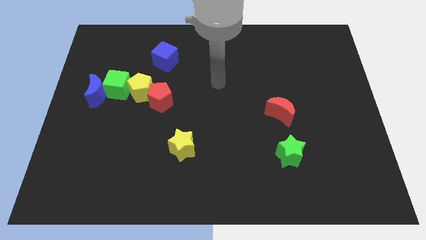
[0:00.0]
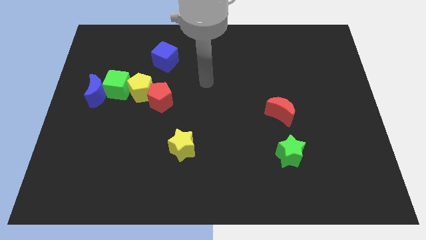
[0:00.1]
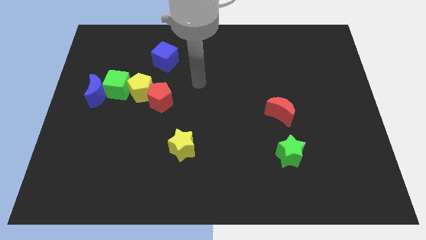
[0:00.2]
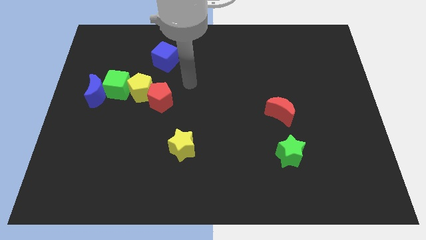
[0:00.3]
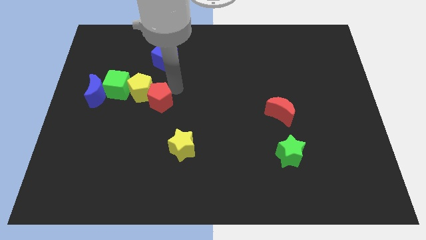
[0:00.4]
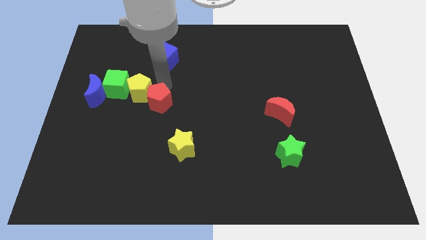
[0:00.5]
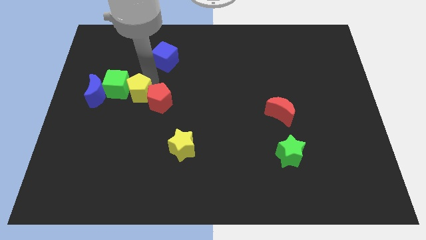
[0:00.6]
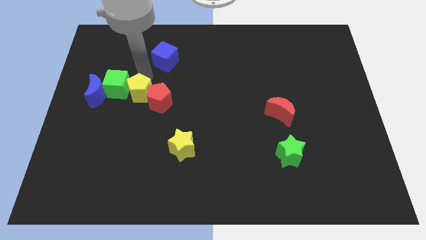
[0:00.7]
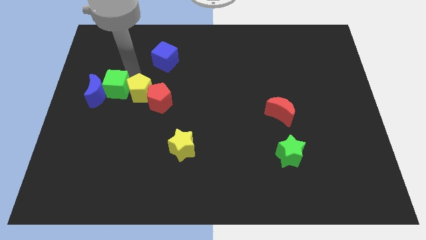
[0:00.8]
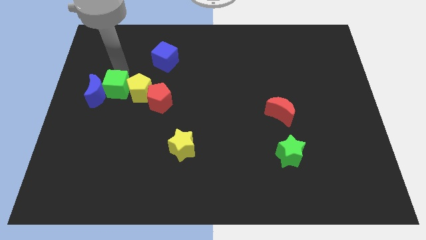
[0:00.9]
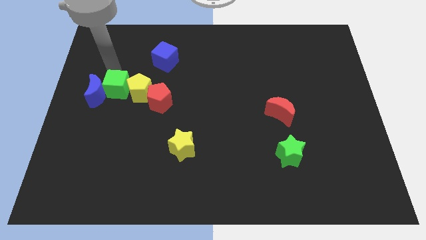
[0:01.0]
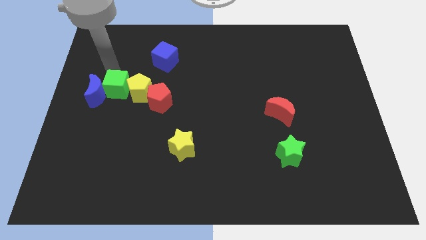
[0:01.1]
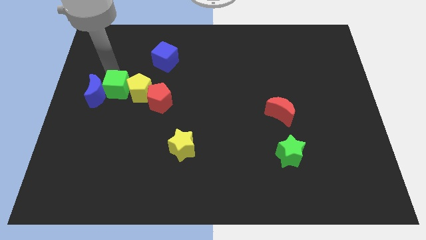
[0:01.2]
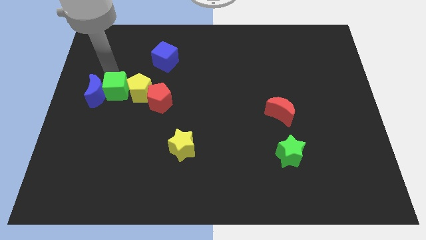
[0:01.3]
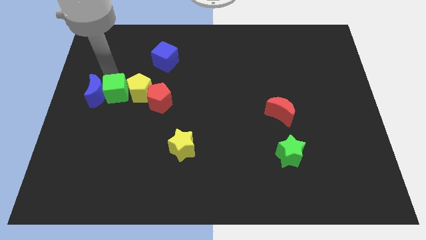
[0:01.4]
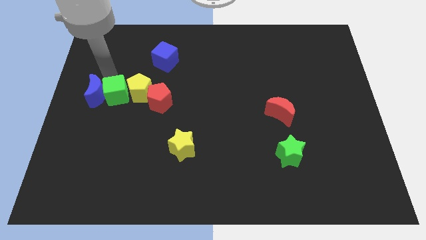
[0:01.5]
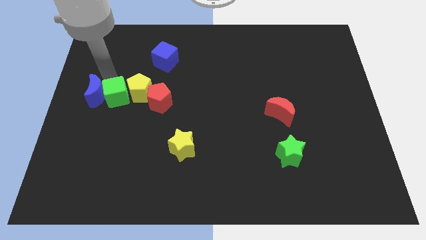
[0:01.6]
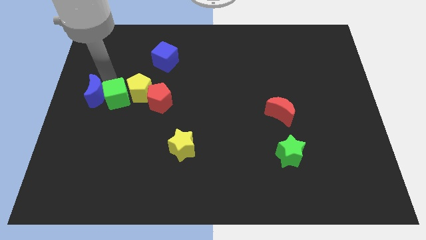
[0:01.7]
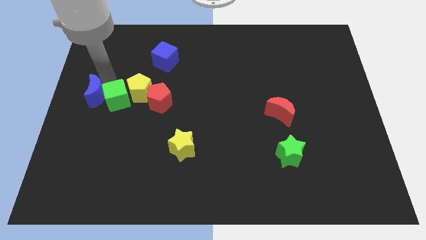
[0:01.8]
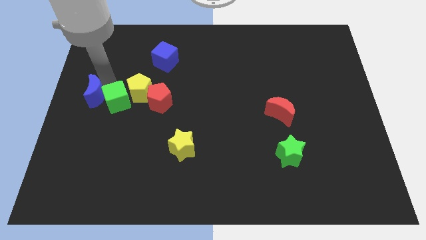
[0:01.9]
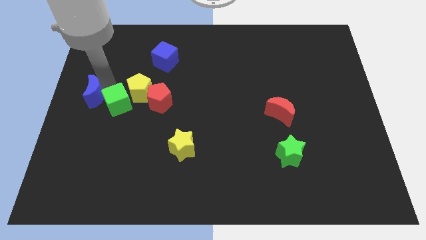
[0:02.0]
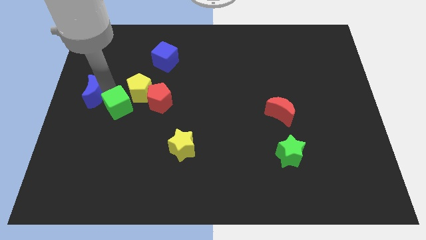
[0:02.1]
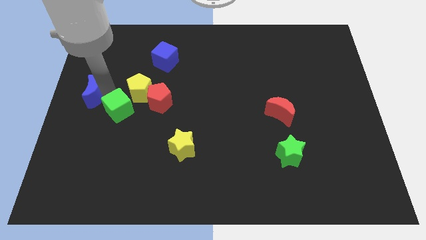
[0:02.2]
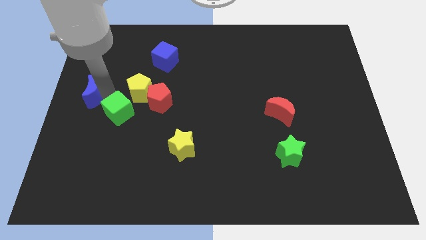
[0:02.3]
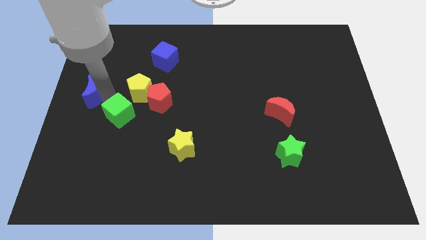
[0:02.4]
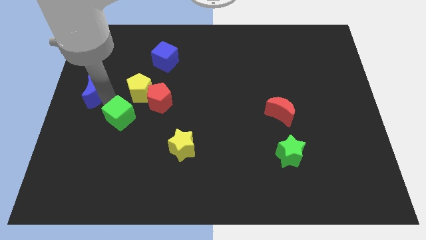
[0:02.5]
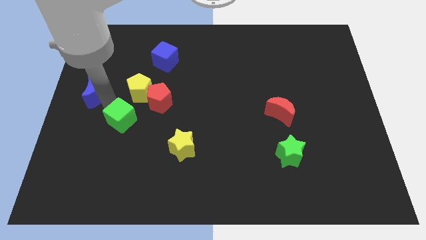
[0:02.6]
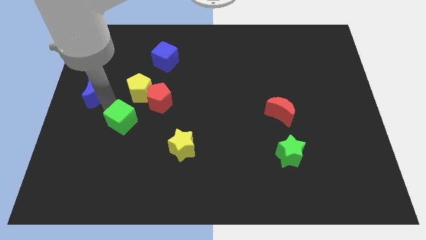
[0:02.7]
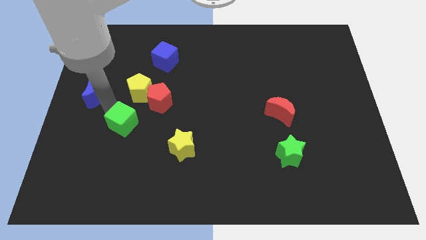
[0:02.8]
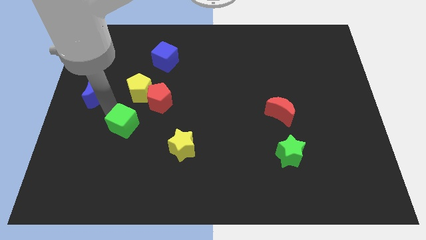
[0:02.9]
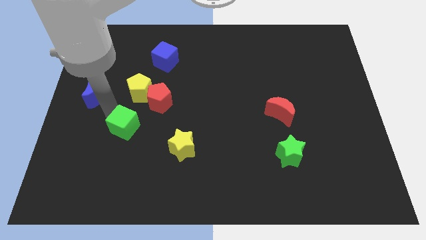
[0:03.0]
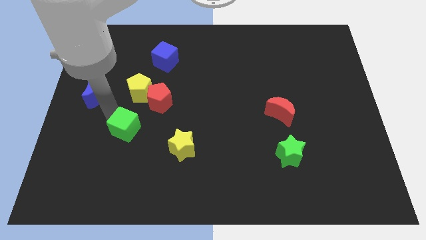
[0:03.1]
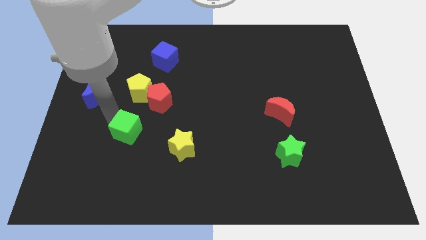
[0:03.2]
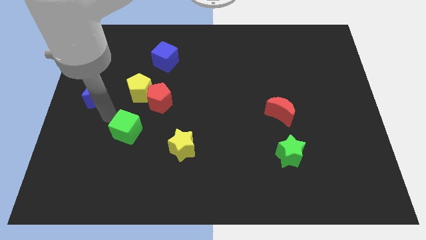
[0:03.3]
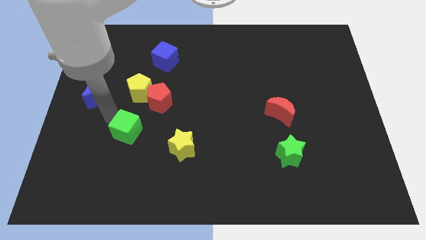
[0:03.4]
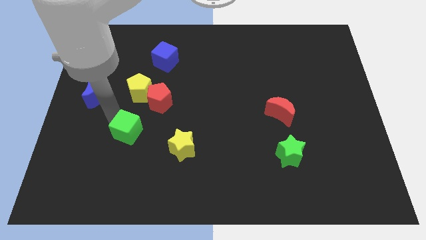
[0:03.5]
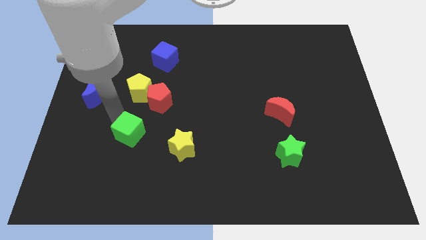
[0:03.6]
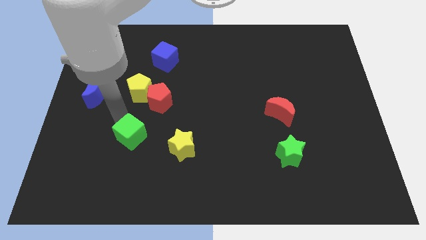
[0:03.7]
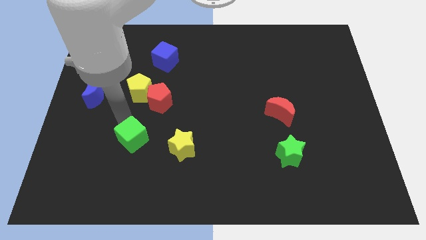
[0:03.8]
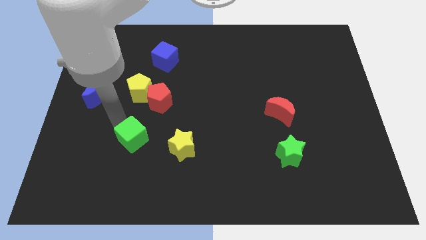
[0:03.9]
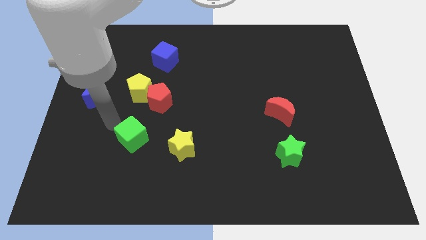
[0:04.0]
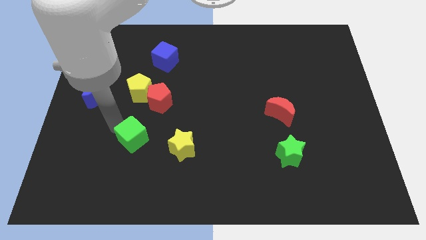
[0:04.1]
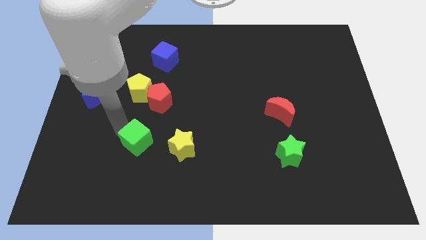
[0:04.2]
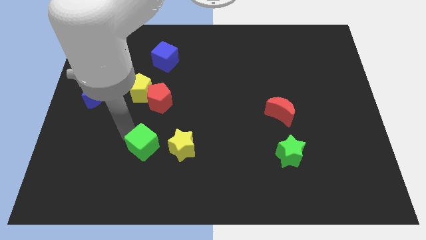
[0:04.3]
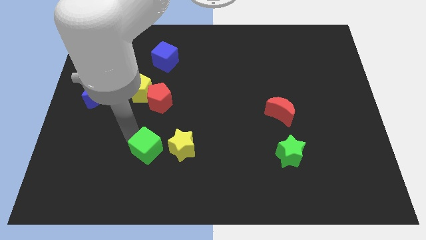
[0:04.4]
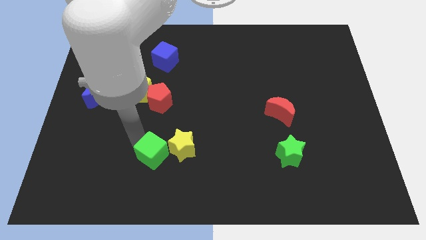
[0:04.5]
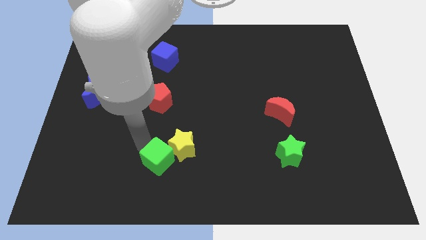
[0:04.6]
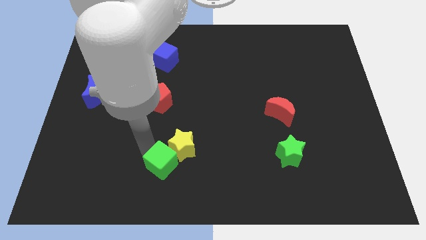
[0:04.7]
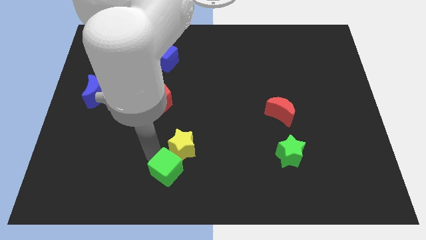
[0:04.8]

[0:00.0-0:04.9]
push the green cube to the bottom

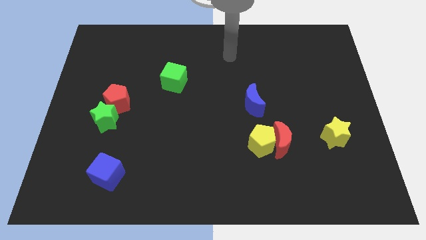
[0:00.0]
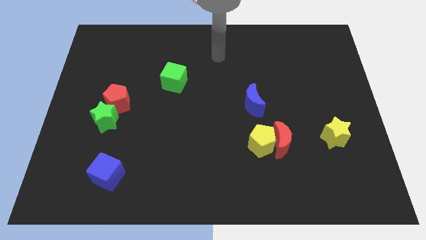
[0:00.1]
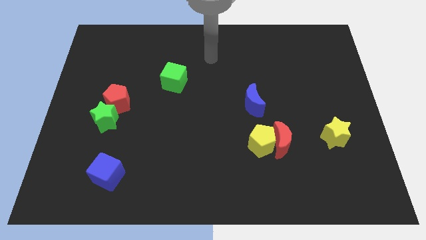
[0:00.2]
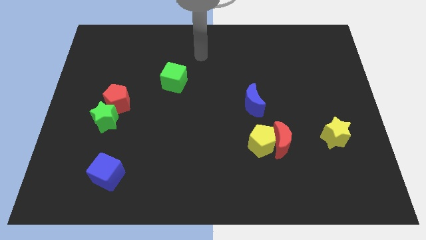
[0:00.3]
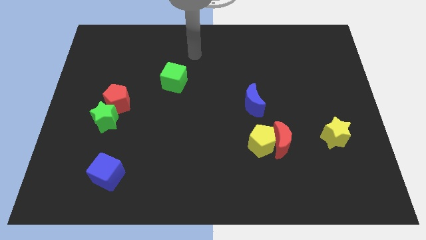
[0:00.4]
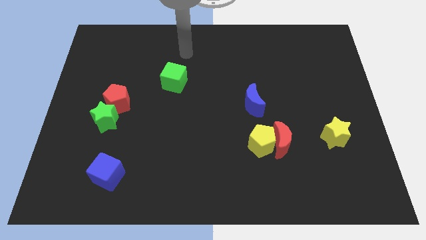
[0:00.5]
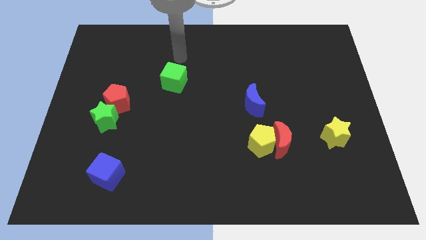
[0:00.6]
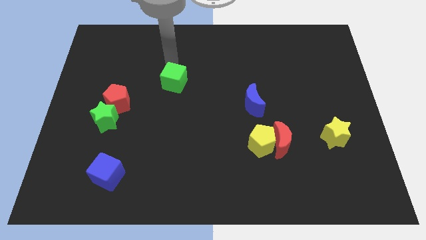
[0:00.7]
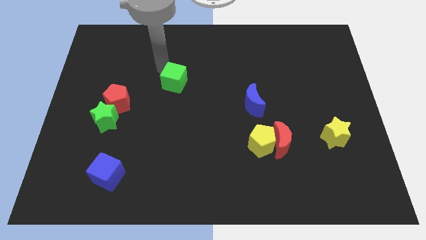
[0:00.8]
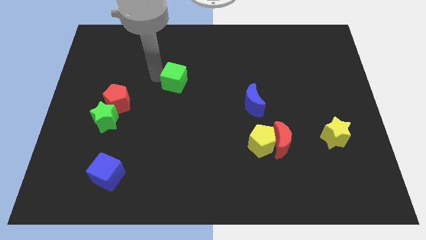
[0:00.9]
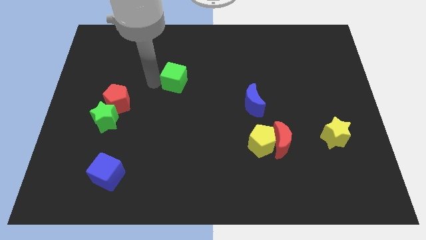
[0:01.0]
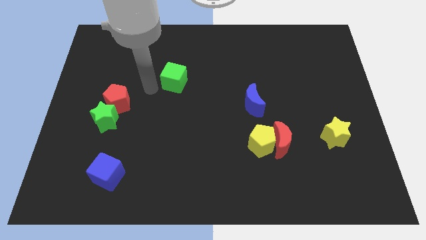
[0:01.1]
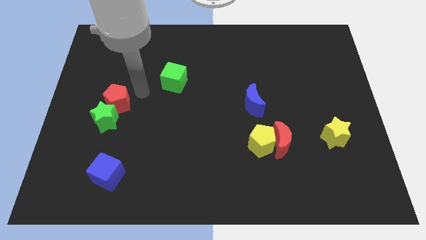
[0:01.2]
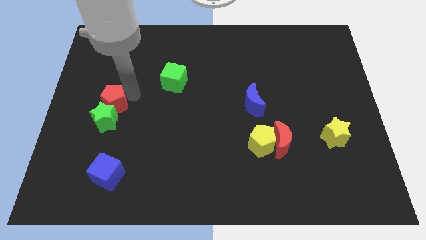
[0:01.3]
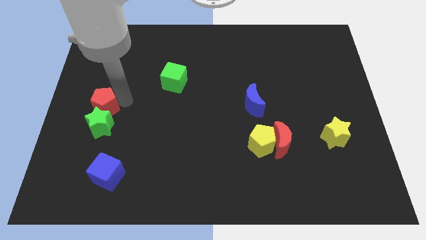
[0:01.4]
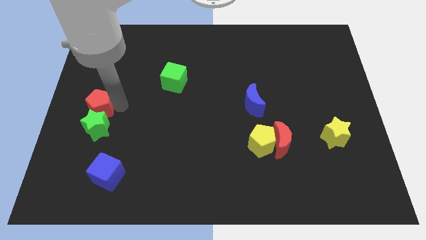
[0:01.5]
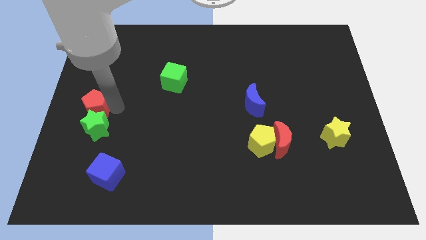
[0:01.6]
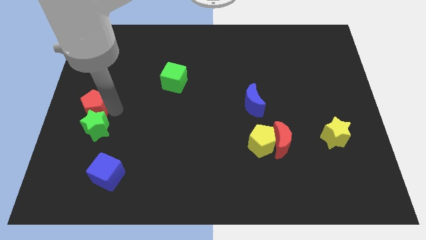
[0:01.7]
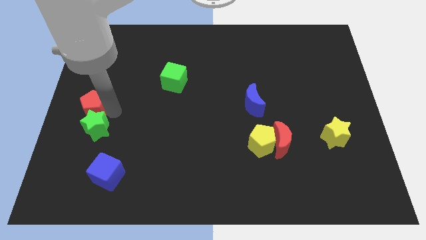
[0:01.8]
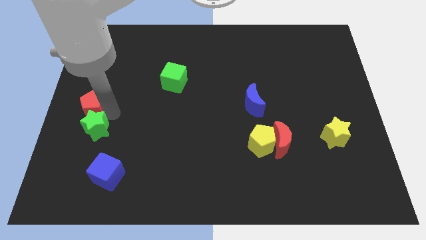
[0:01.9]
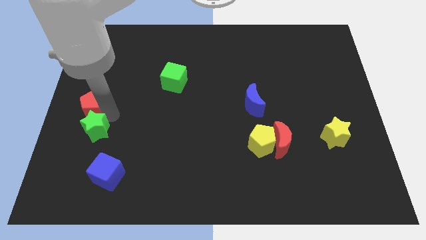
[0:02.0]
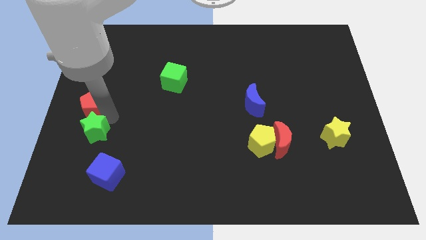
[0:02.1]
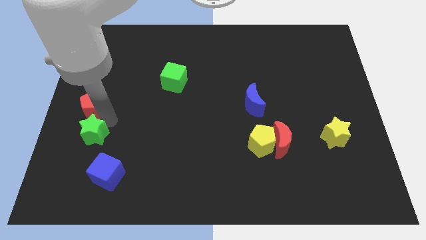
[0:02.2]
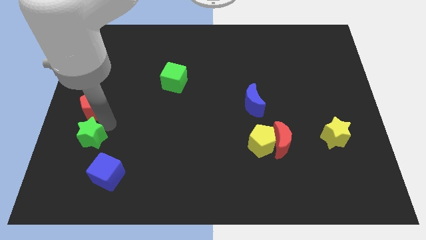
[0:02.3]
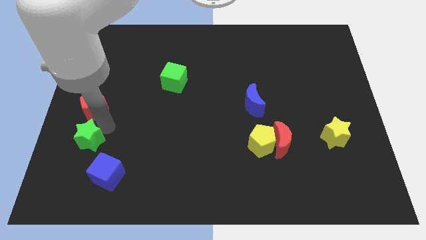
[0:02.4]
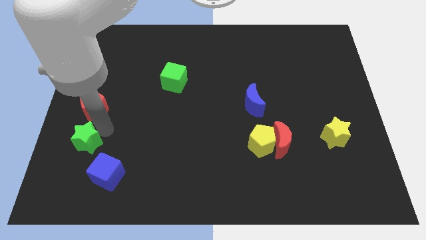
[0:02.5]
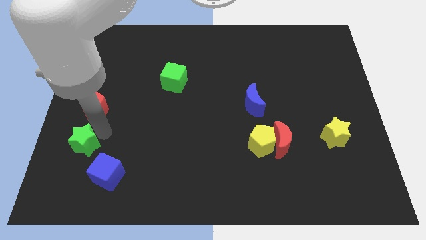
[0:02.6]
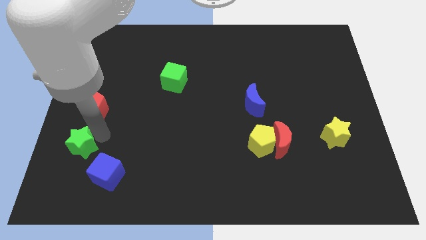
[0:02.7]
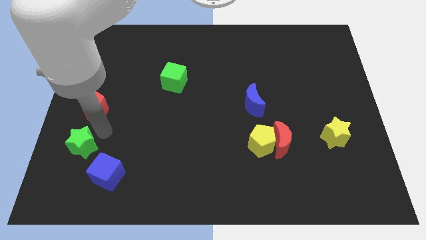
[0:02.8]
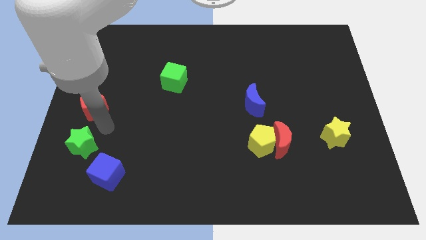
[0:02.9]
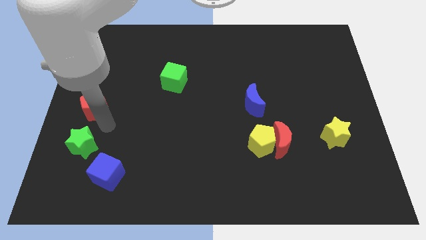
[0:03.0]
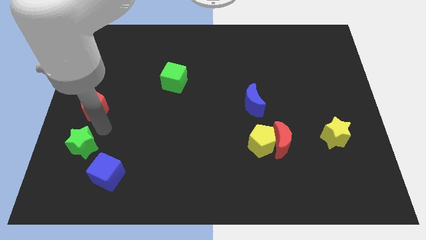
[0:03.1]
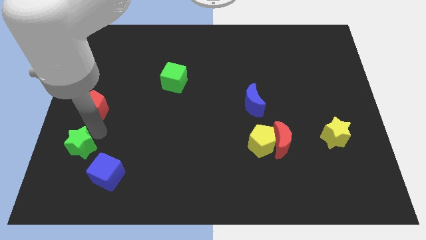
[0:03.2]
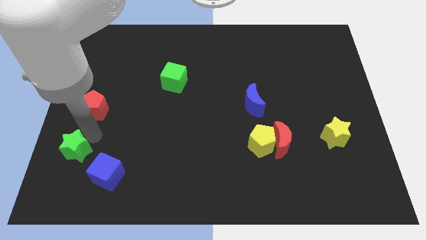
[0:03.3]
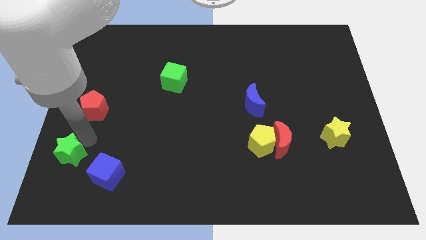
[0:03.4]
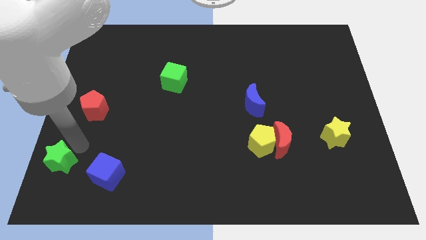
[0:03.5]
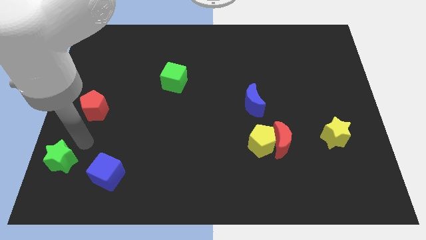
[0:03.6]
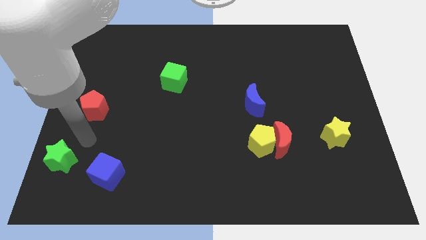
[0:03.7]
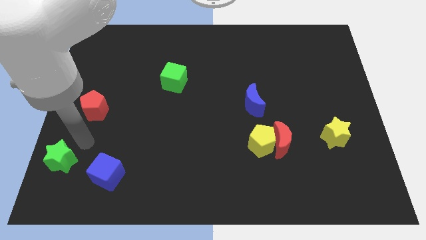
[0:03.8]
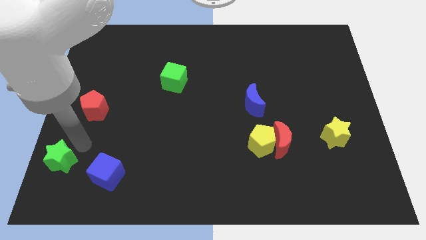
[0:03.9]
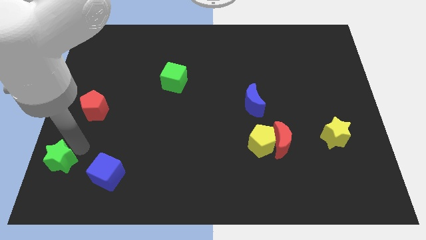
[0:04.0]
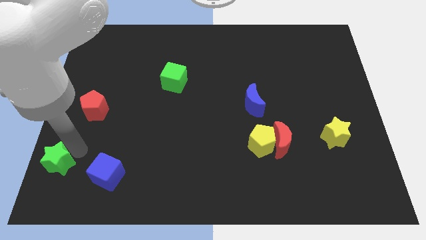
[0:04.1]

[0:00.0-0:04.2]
slide the green star to the bottom left corner
